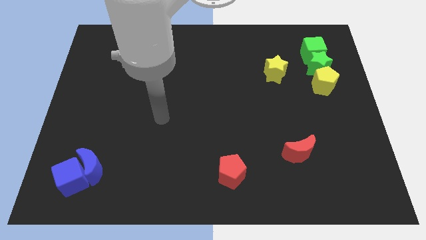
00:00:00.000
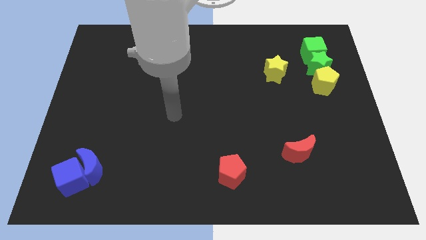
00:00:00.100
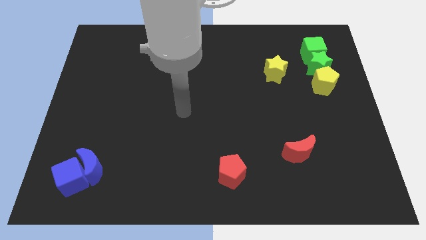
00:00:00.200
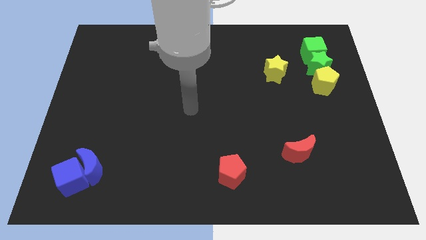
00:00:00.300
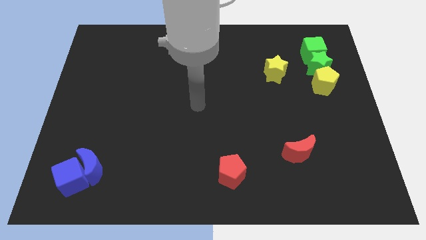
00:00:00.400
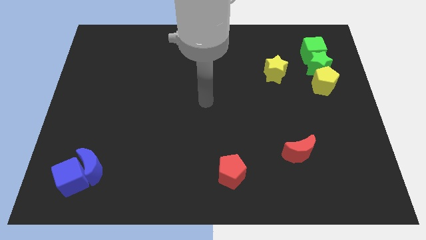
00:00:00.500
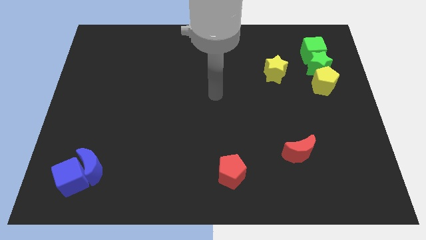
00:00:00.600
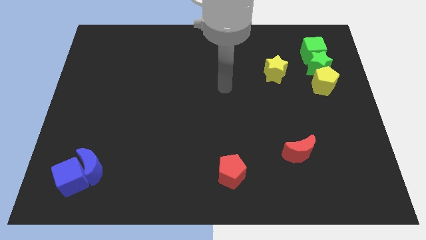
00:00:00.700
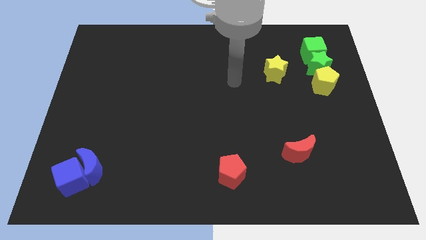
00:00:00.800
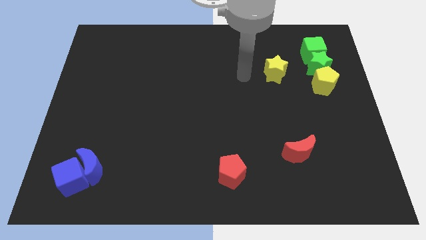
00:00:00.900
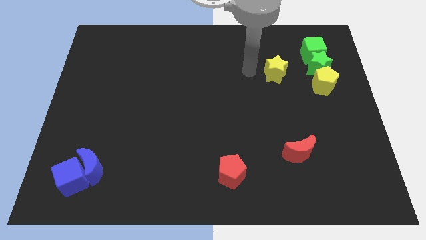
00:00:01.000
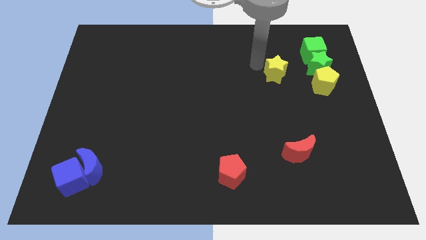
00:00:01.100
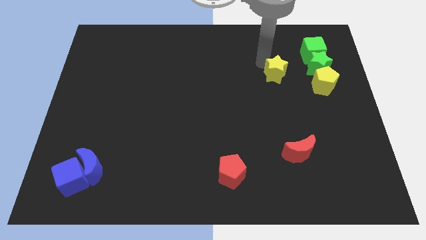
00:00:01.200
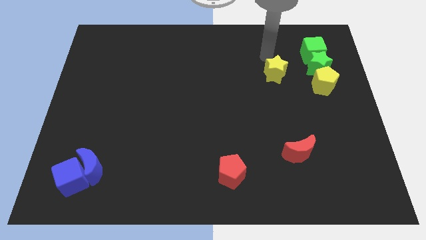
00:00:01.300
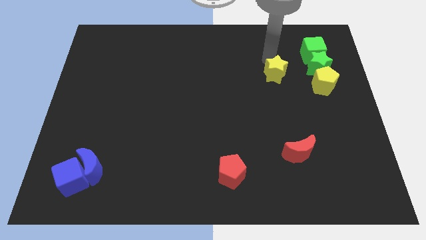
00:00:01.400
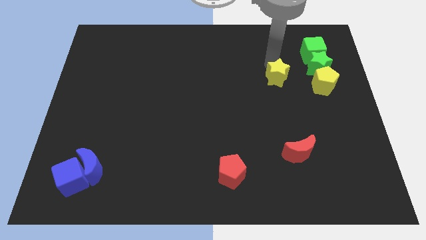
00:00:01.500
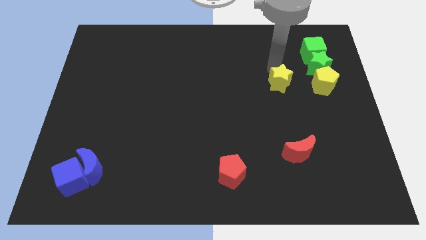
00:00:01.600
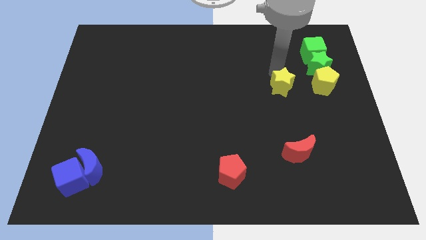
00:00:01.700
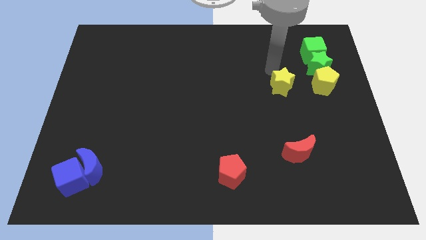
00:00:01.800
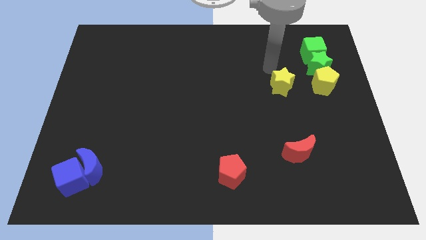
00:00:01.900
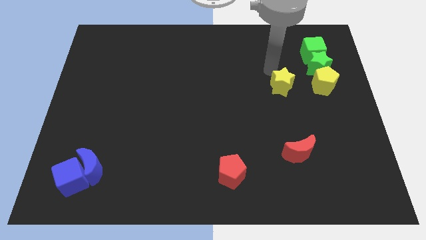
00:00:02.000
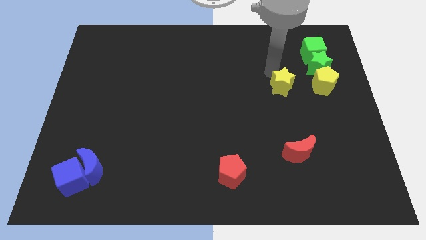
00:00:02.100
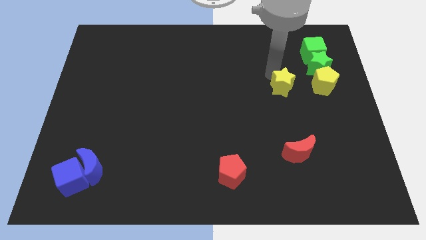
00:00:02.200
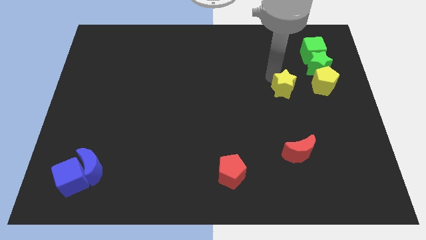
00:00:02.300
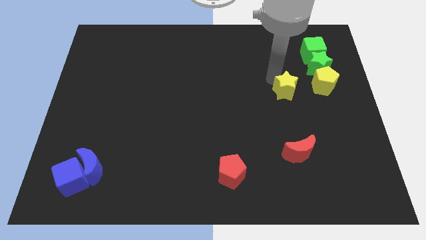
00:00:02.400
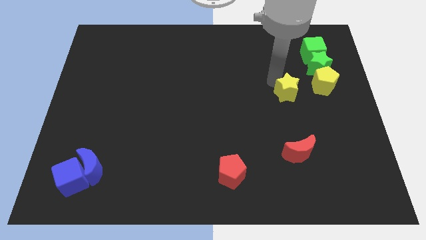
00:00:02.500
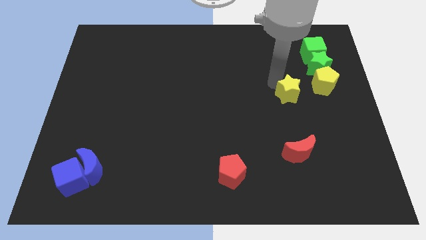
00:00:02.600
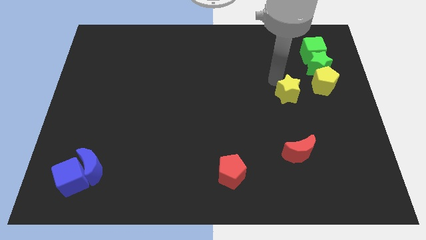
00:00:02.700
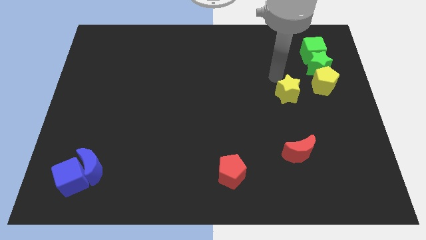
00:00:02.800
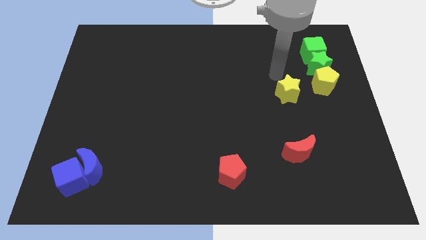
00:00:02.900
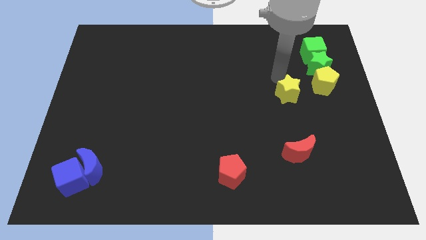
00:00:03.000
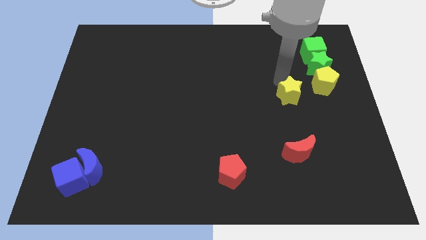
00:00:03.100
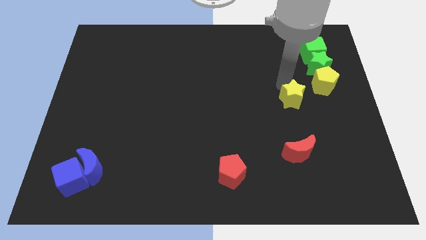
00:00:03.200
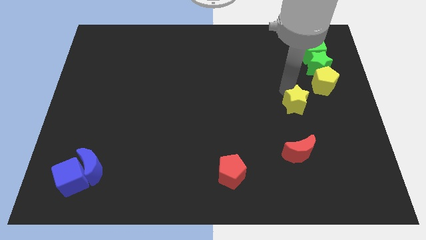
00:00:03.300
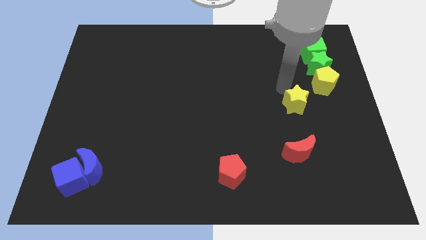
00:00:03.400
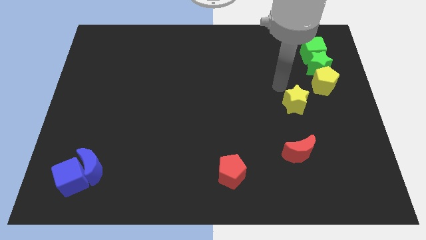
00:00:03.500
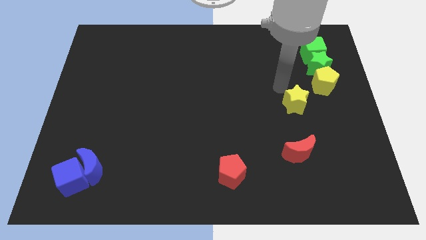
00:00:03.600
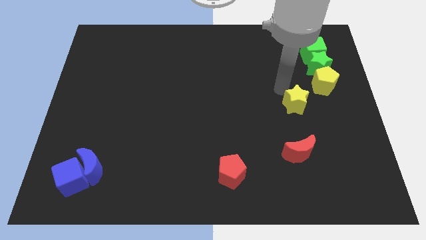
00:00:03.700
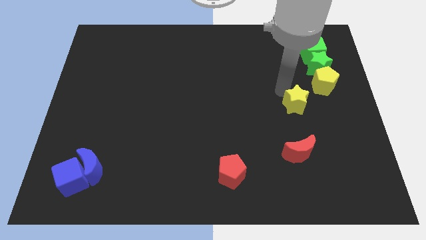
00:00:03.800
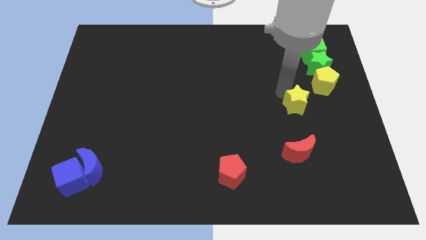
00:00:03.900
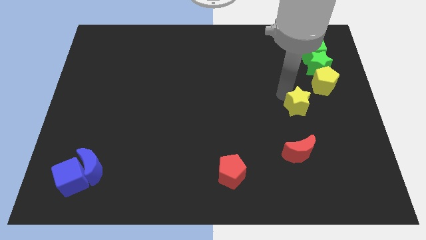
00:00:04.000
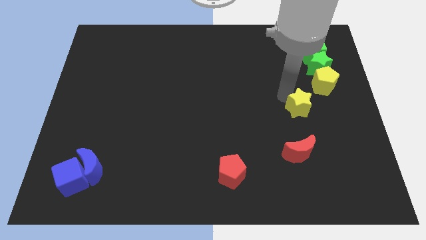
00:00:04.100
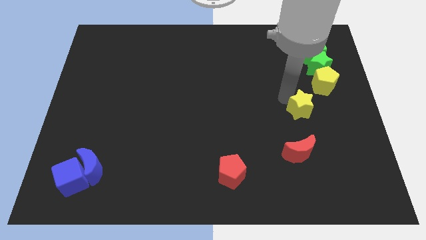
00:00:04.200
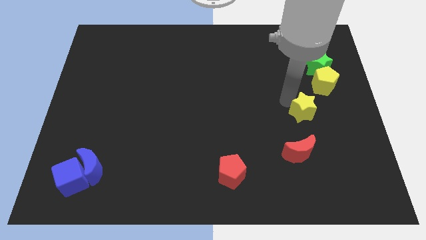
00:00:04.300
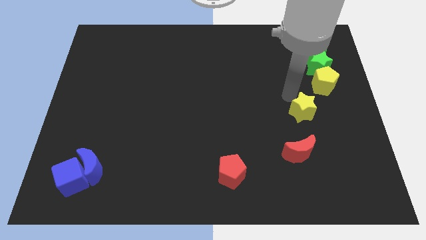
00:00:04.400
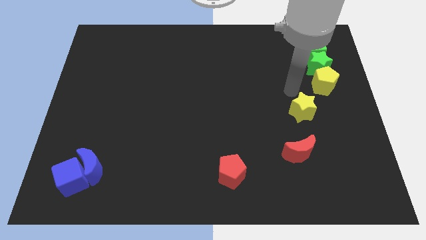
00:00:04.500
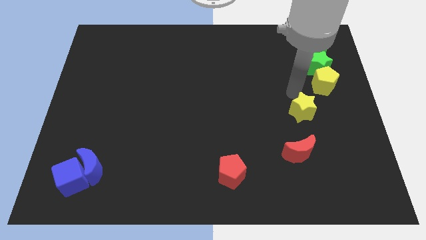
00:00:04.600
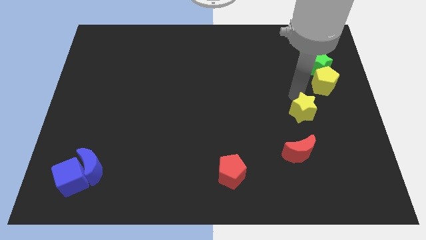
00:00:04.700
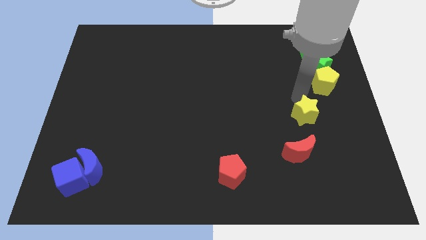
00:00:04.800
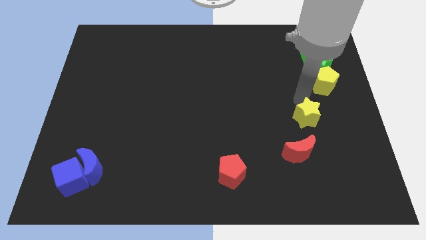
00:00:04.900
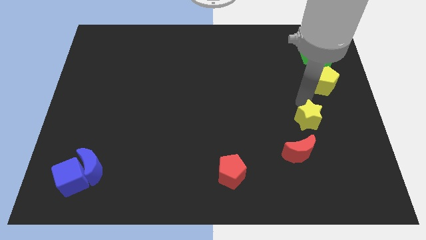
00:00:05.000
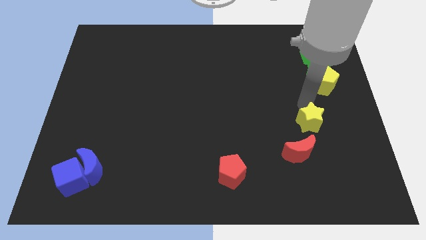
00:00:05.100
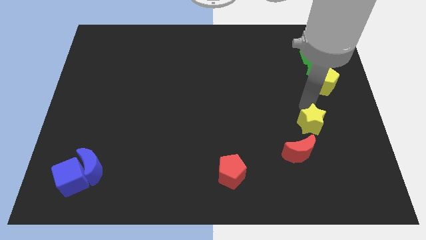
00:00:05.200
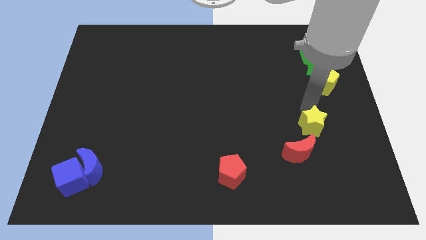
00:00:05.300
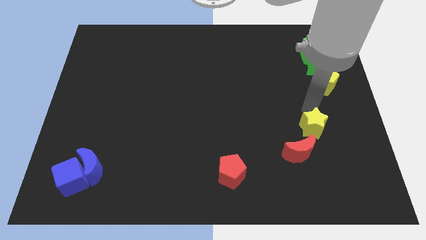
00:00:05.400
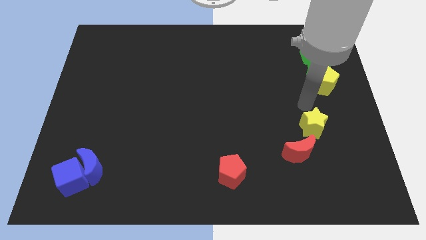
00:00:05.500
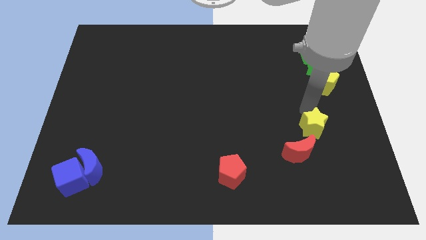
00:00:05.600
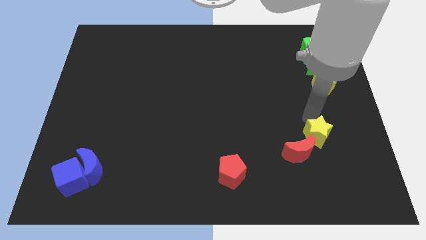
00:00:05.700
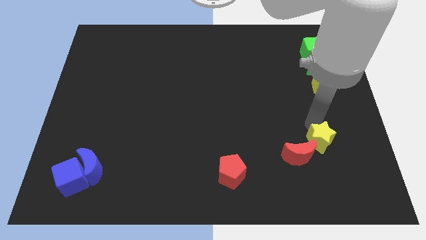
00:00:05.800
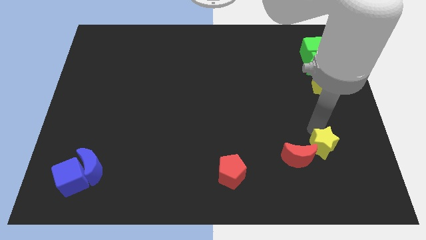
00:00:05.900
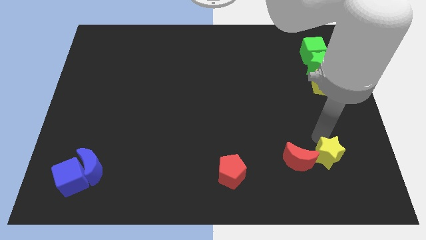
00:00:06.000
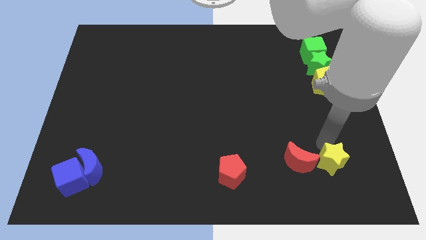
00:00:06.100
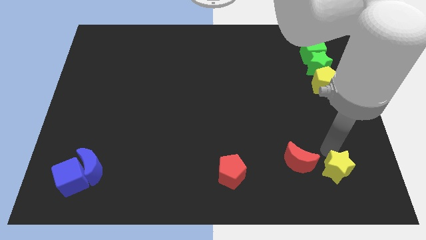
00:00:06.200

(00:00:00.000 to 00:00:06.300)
slide the yellow star to the bottom right of the red moon

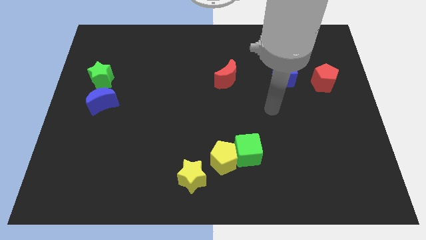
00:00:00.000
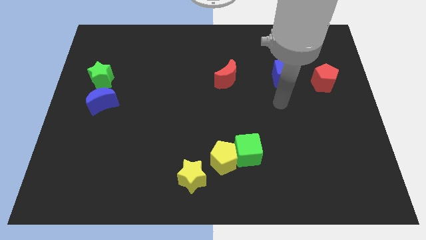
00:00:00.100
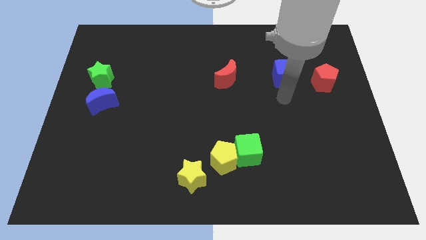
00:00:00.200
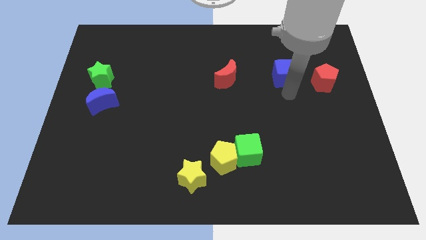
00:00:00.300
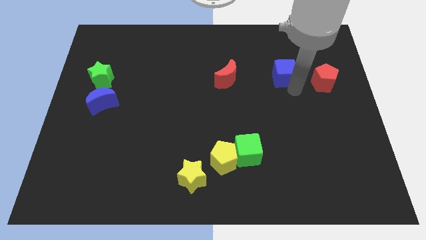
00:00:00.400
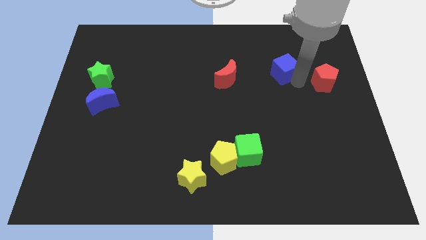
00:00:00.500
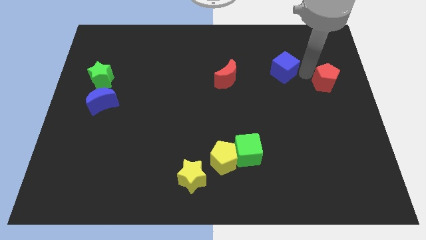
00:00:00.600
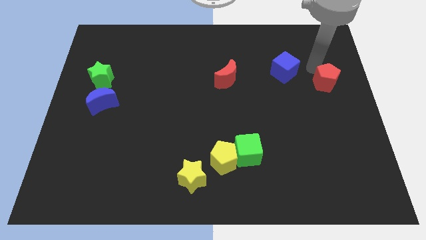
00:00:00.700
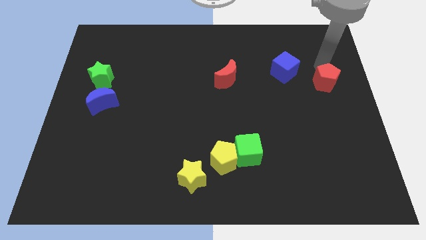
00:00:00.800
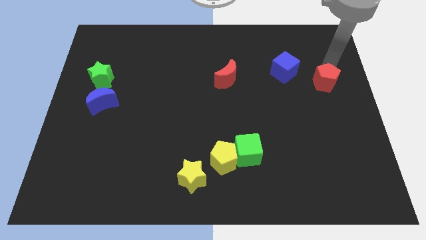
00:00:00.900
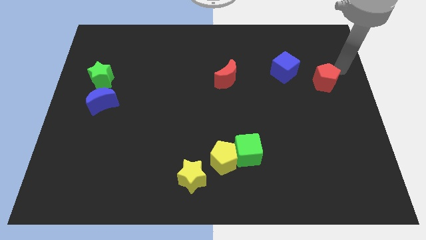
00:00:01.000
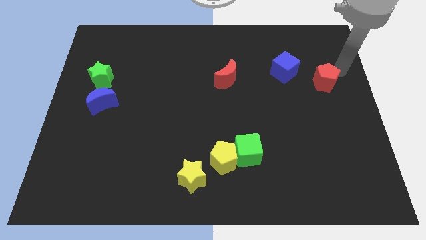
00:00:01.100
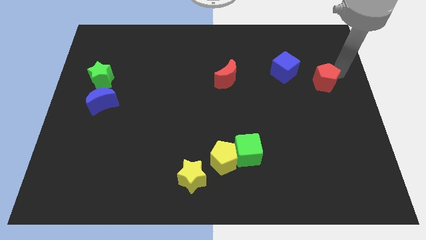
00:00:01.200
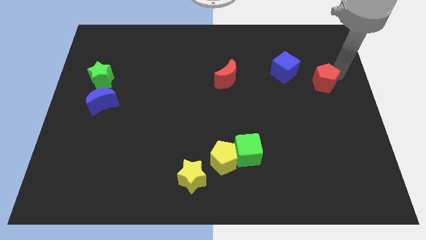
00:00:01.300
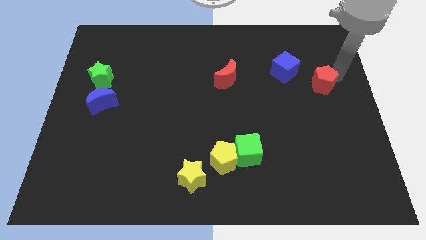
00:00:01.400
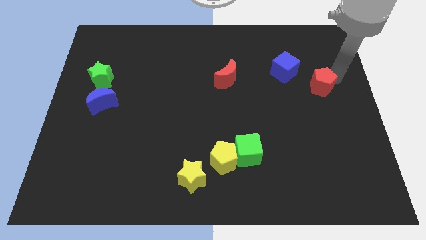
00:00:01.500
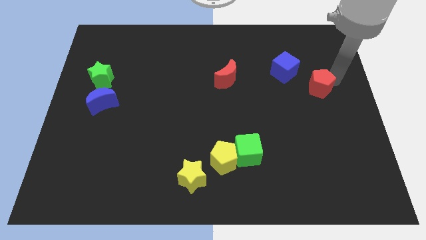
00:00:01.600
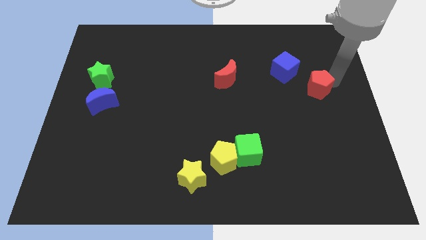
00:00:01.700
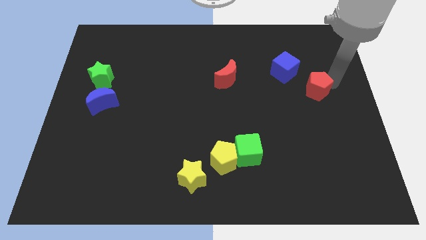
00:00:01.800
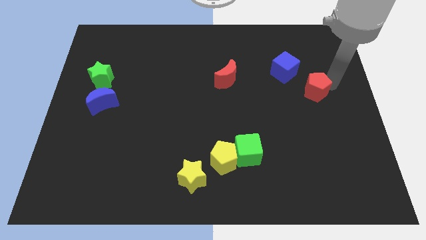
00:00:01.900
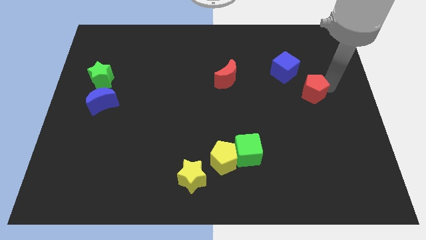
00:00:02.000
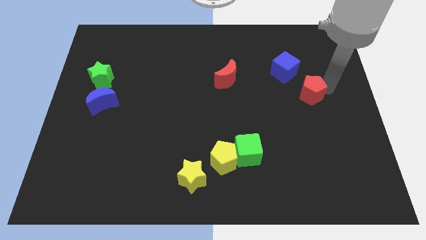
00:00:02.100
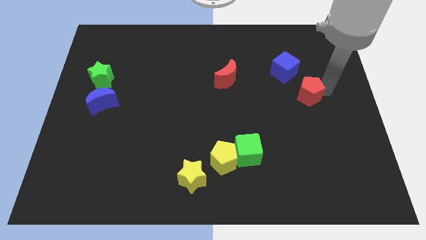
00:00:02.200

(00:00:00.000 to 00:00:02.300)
move the red pentagon to the bottom of the blue cube

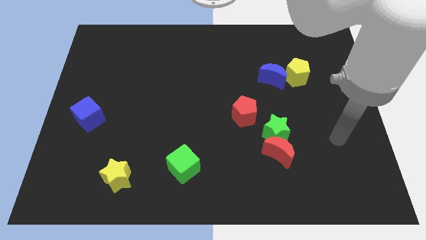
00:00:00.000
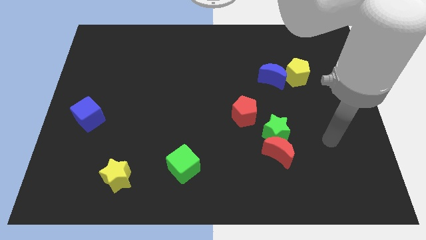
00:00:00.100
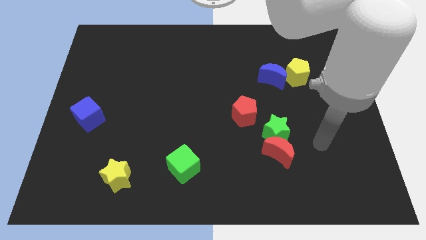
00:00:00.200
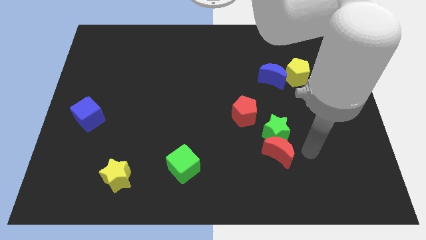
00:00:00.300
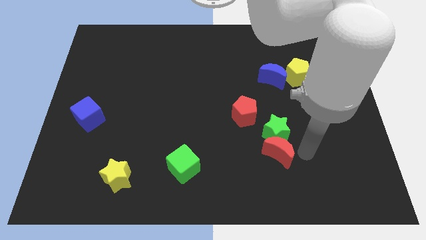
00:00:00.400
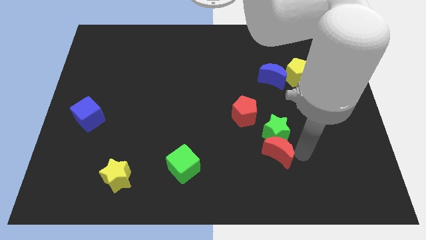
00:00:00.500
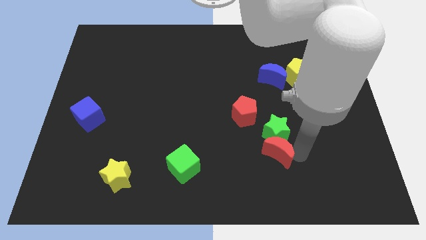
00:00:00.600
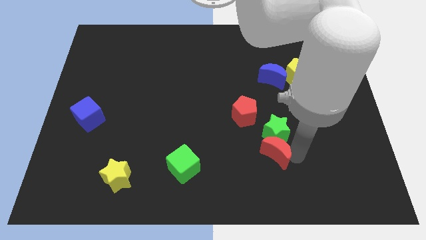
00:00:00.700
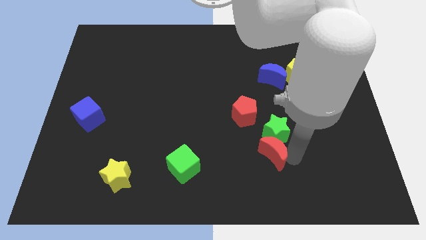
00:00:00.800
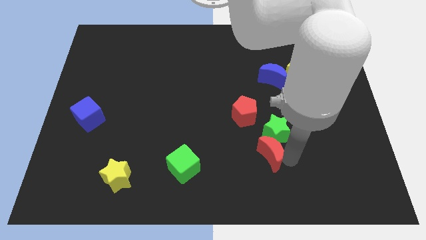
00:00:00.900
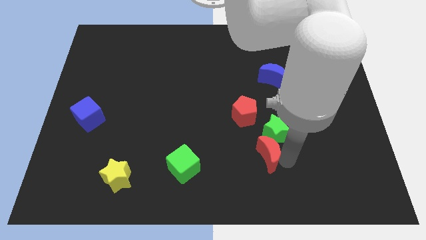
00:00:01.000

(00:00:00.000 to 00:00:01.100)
slide the red moon to the bottom of the red pentagon
